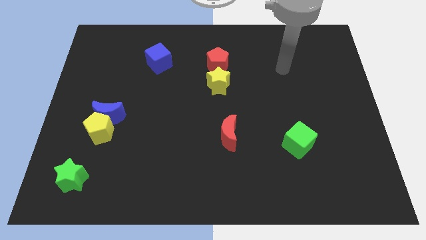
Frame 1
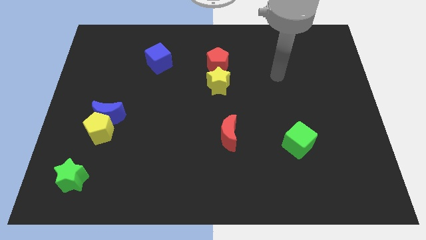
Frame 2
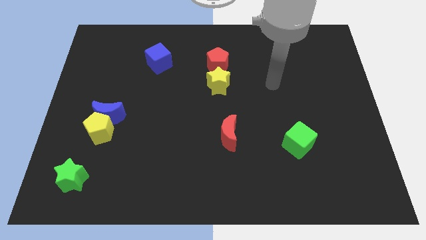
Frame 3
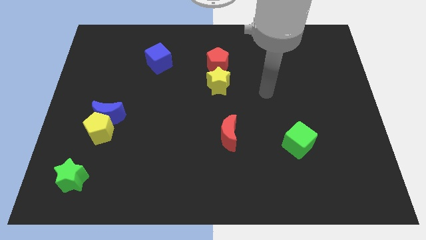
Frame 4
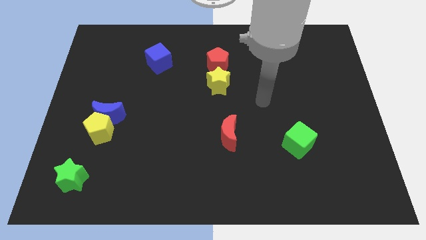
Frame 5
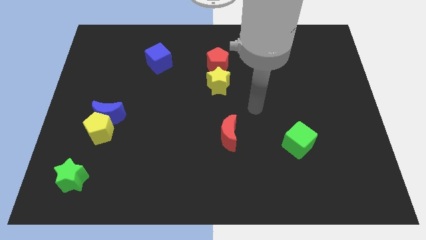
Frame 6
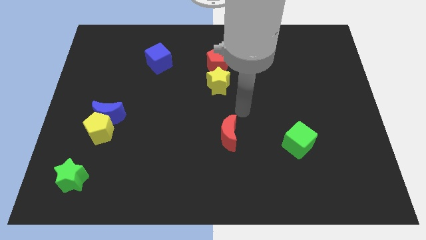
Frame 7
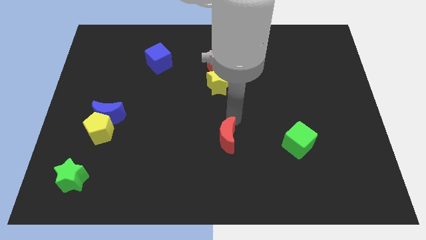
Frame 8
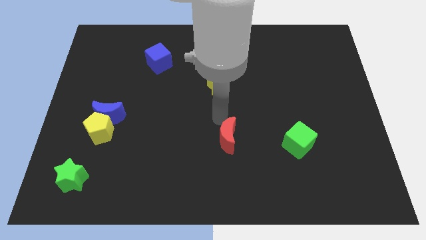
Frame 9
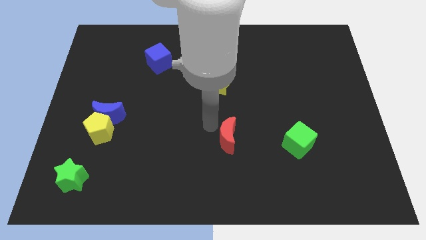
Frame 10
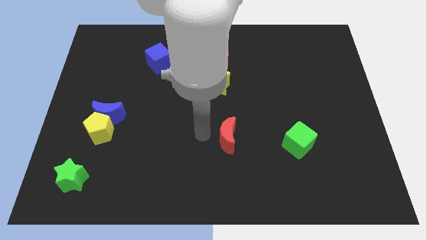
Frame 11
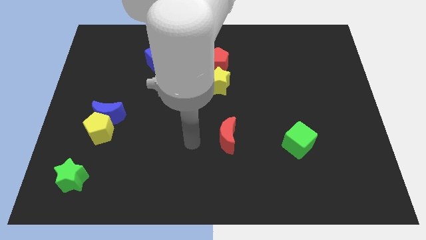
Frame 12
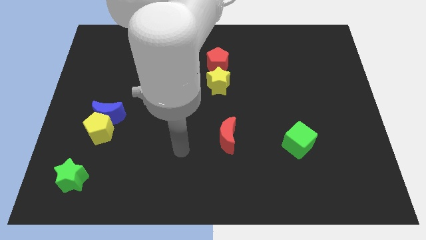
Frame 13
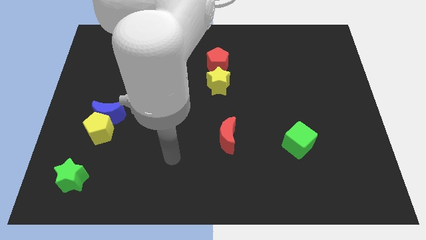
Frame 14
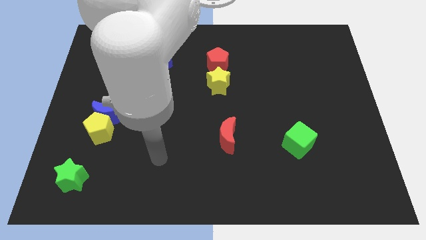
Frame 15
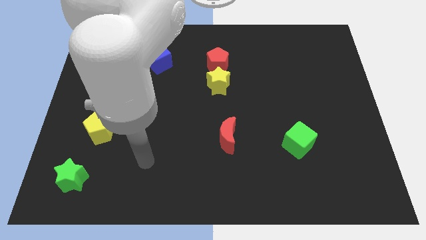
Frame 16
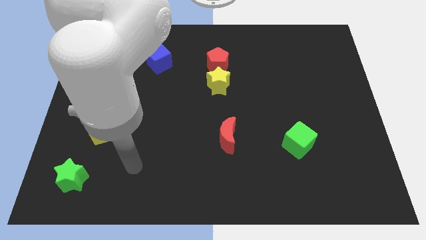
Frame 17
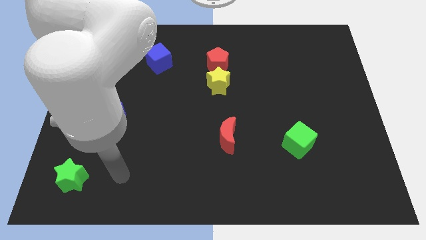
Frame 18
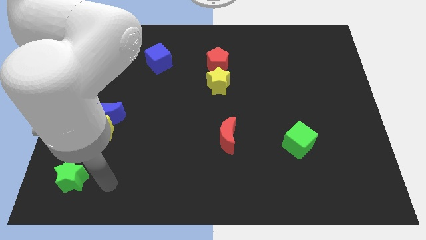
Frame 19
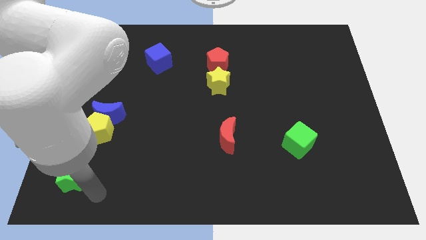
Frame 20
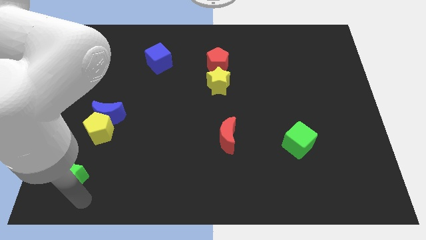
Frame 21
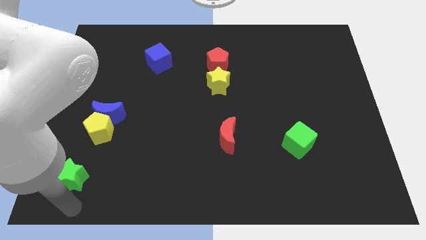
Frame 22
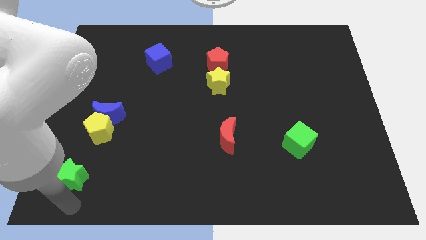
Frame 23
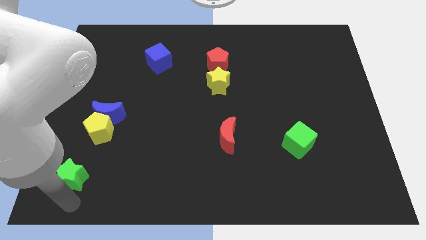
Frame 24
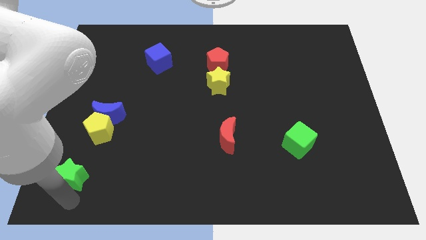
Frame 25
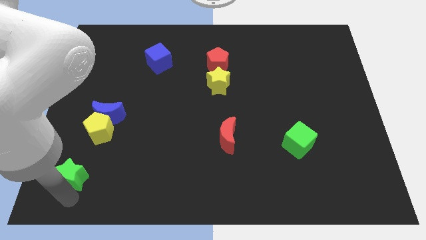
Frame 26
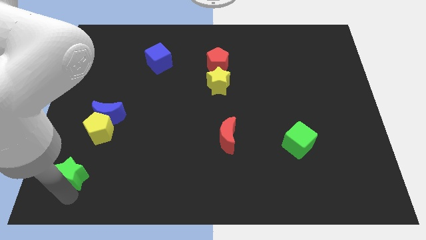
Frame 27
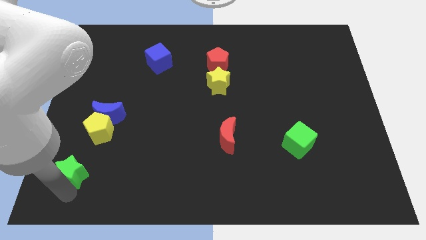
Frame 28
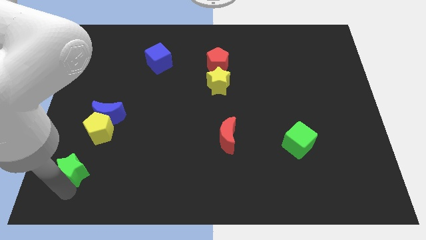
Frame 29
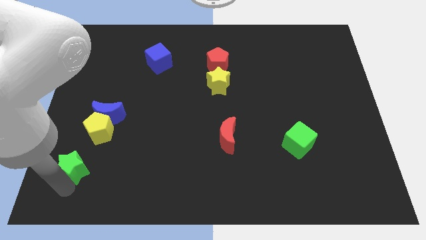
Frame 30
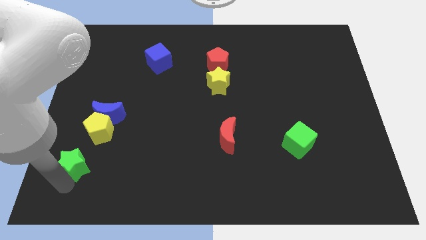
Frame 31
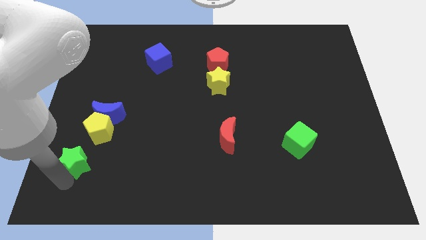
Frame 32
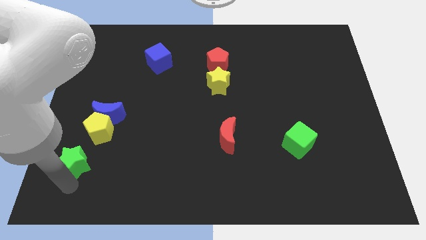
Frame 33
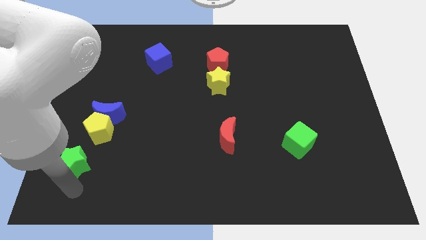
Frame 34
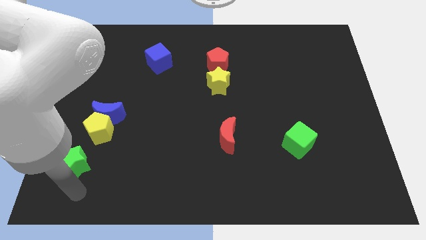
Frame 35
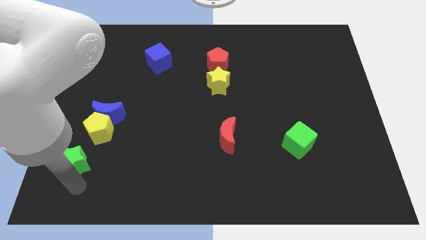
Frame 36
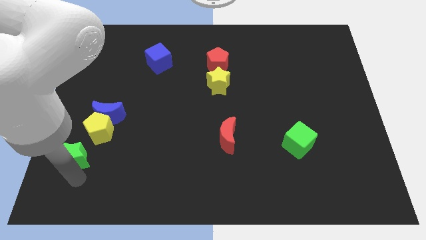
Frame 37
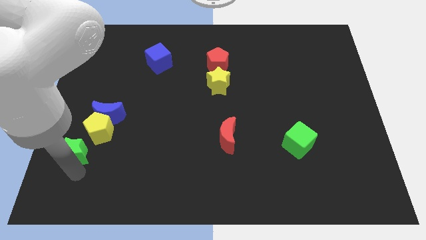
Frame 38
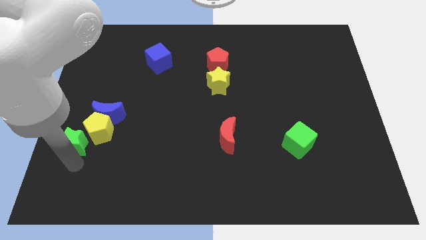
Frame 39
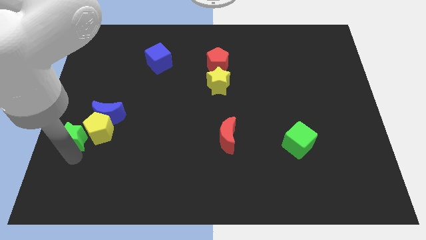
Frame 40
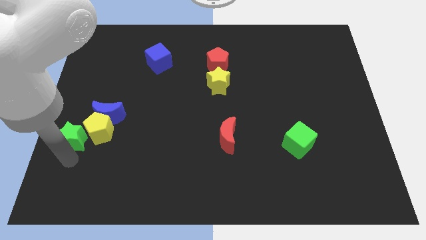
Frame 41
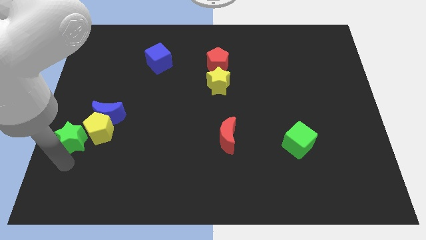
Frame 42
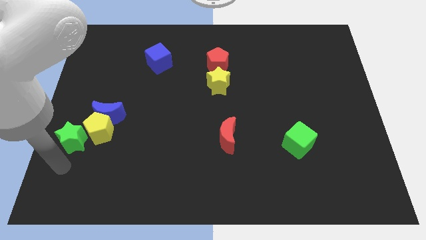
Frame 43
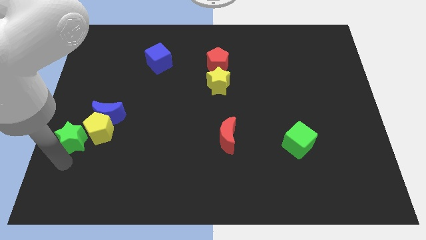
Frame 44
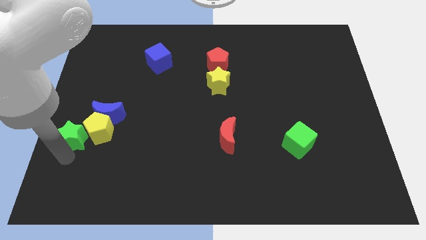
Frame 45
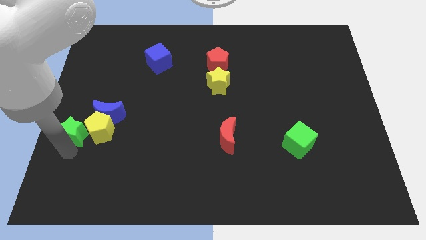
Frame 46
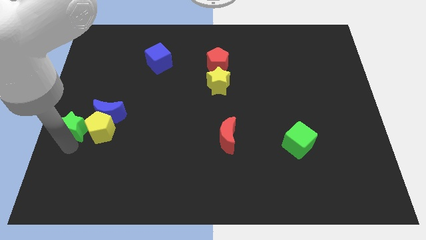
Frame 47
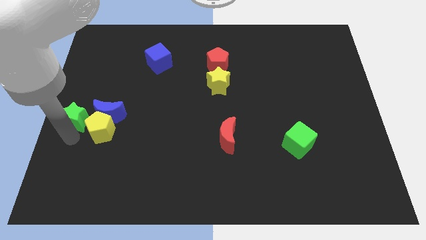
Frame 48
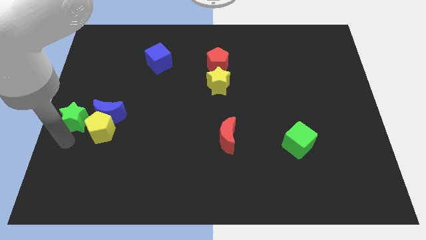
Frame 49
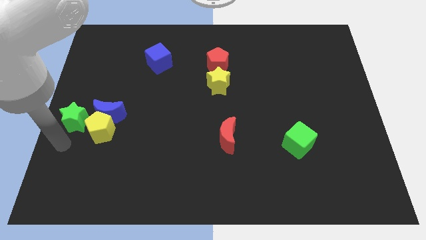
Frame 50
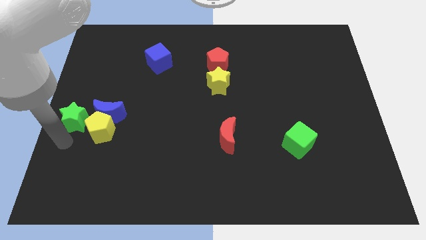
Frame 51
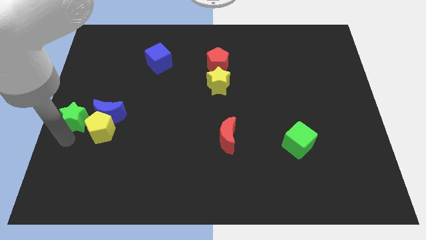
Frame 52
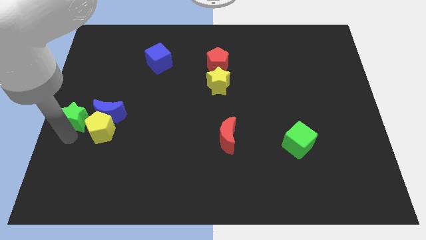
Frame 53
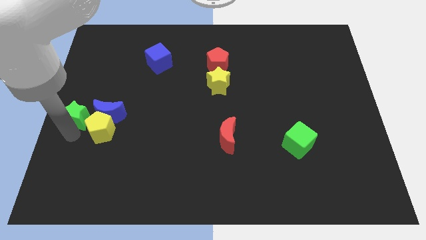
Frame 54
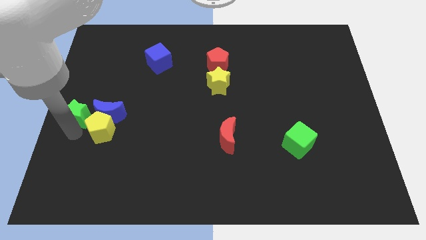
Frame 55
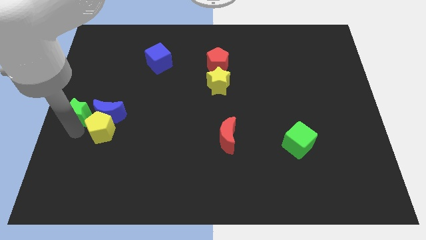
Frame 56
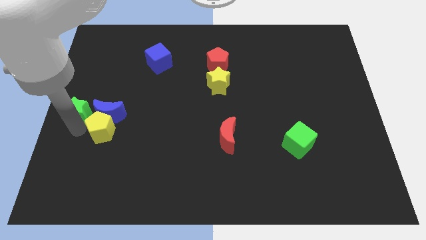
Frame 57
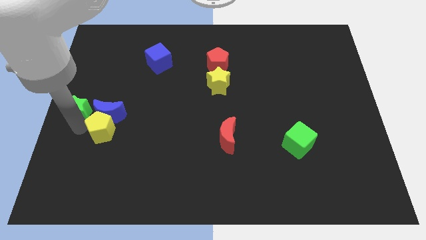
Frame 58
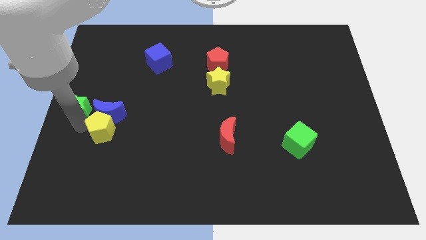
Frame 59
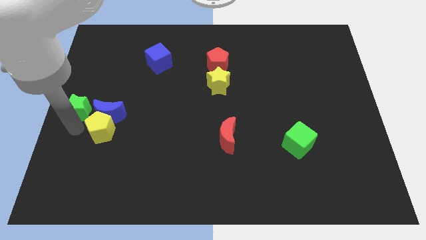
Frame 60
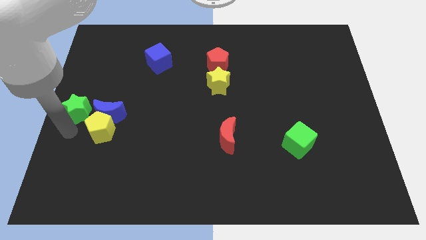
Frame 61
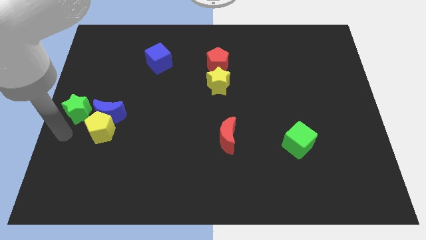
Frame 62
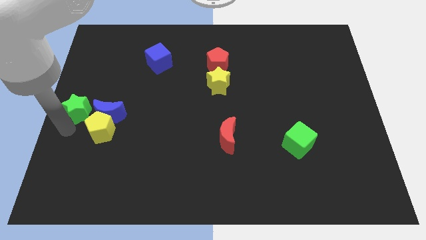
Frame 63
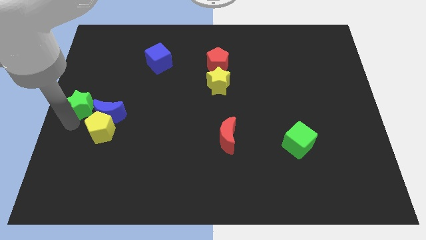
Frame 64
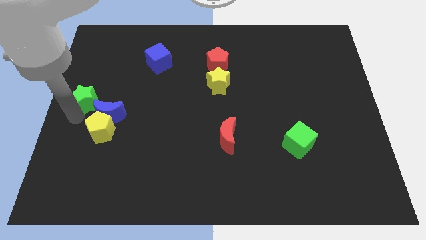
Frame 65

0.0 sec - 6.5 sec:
move the green star up

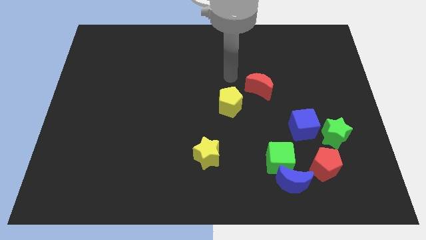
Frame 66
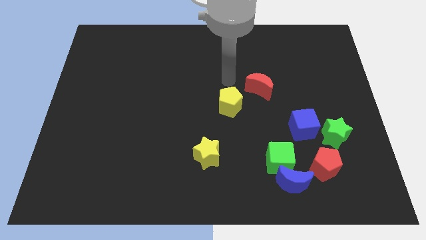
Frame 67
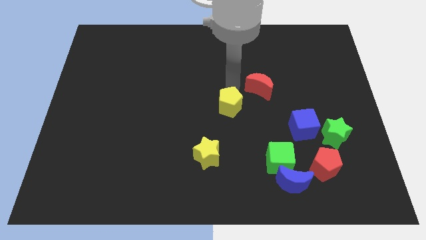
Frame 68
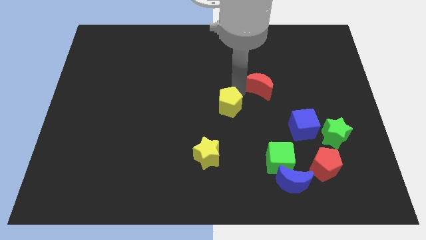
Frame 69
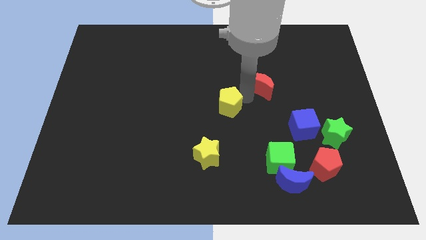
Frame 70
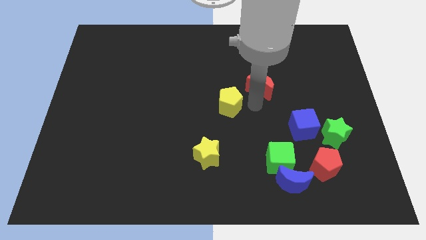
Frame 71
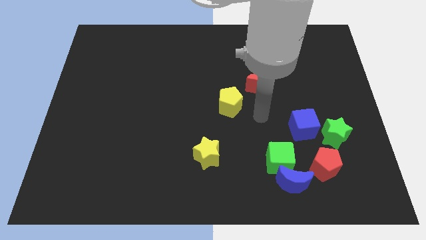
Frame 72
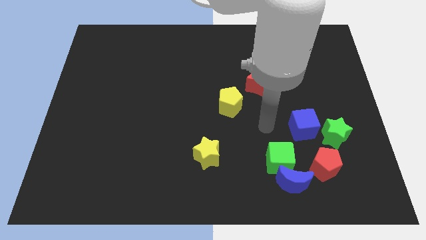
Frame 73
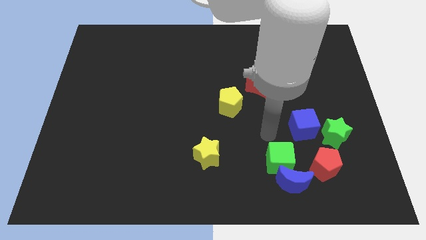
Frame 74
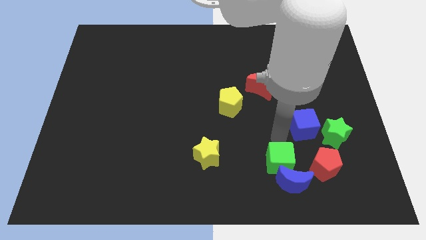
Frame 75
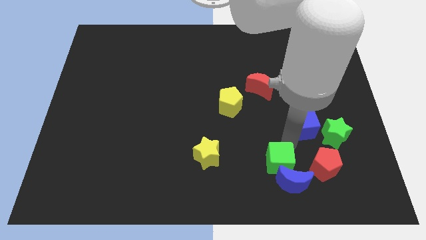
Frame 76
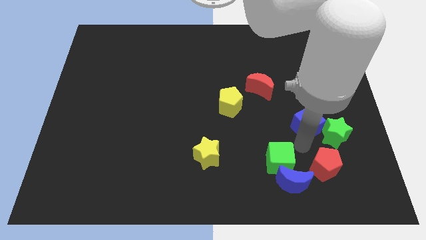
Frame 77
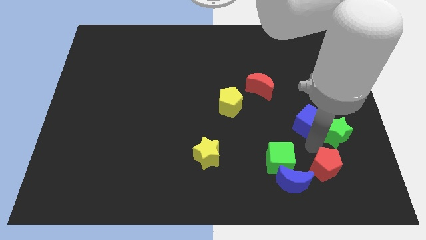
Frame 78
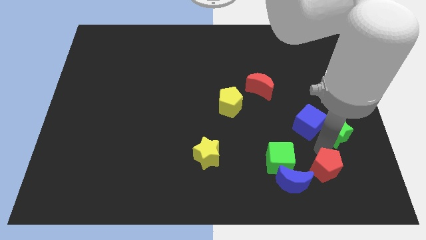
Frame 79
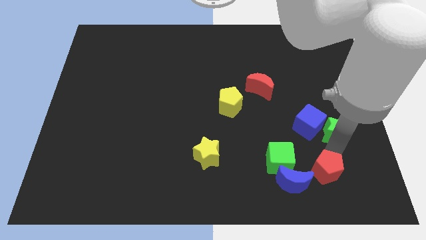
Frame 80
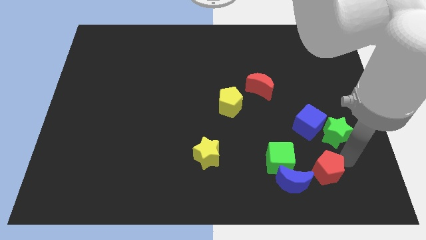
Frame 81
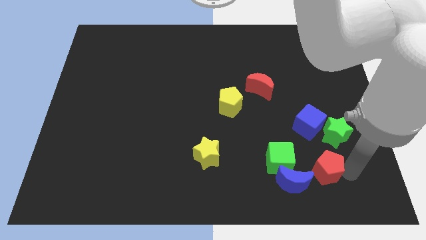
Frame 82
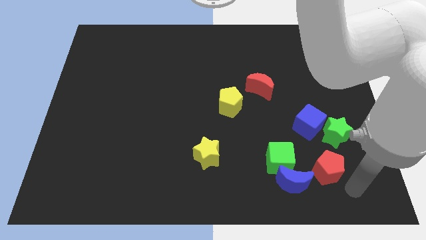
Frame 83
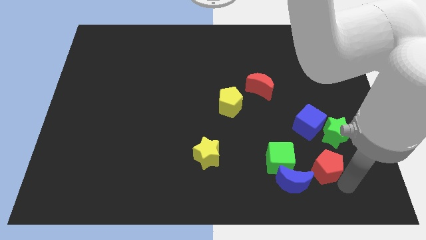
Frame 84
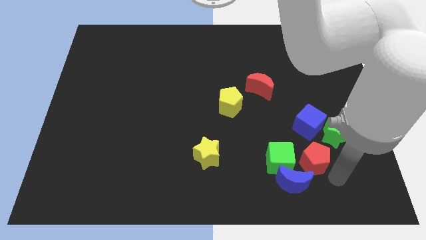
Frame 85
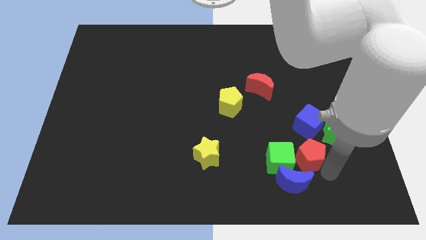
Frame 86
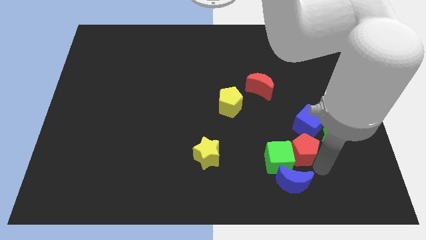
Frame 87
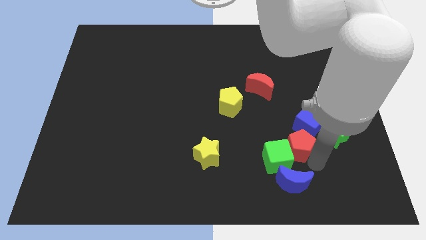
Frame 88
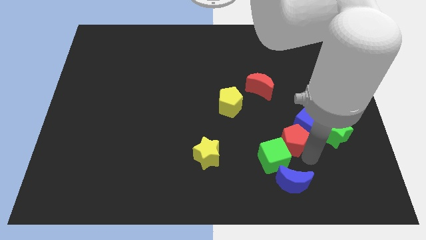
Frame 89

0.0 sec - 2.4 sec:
move the red pentagon a bit up and left diagonally
